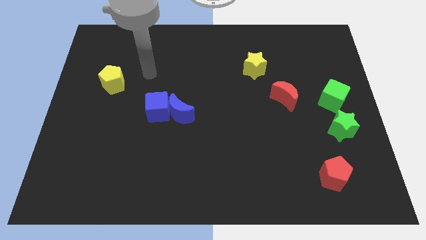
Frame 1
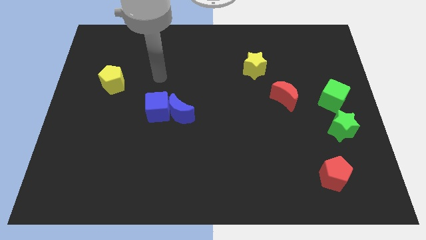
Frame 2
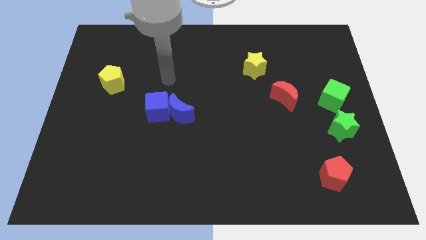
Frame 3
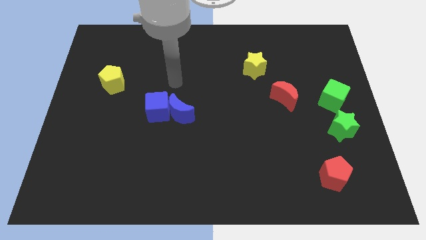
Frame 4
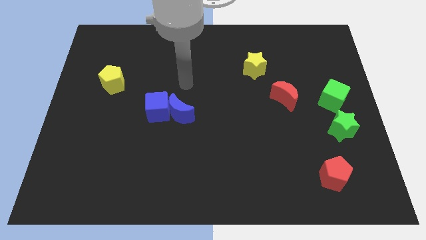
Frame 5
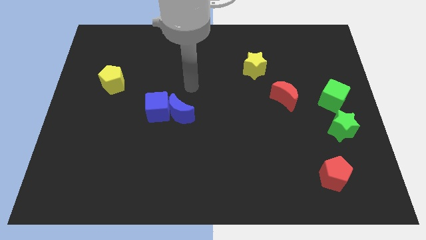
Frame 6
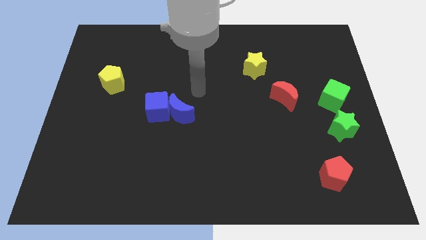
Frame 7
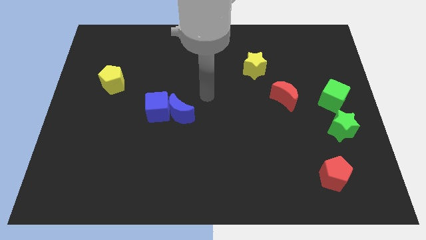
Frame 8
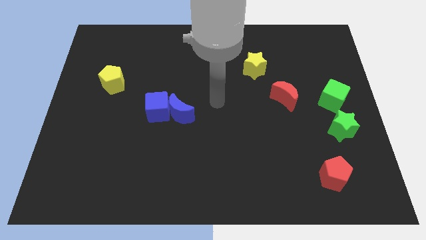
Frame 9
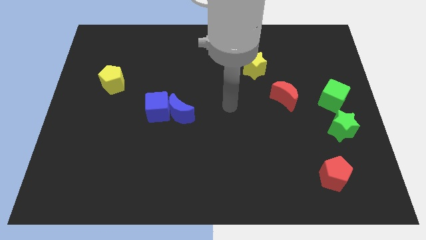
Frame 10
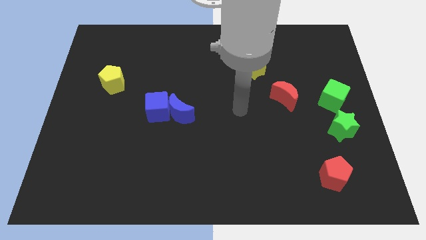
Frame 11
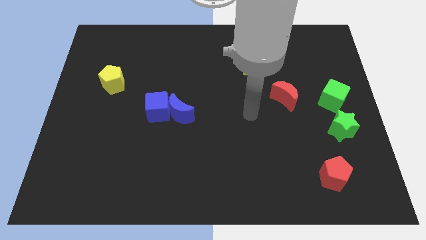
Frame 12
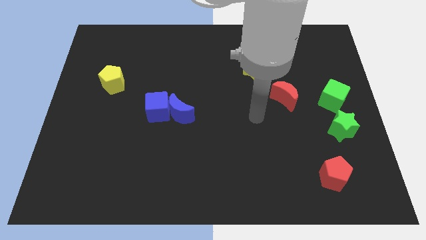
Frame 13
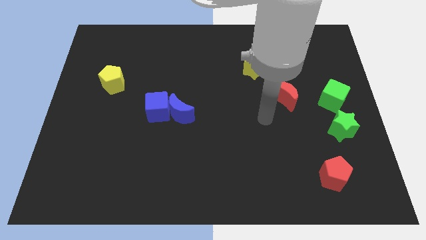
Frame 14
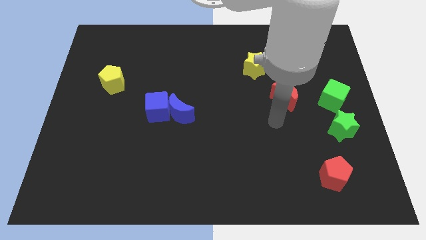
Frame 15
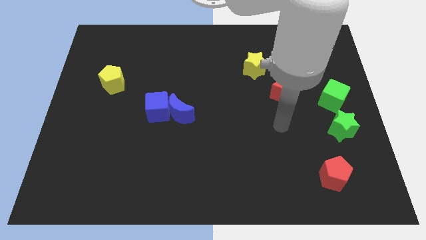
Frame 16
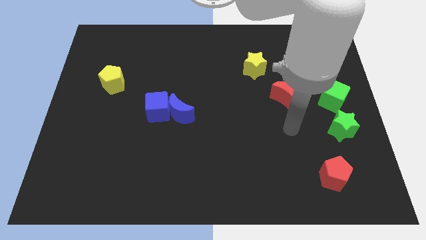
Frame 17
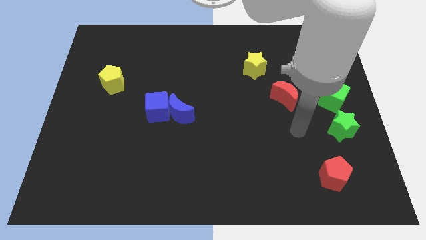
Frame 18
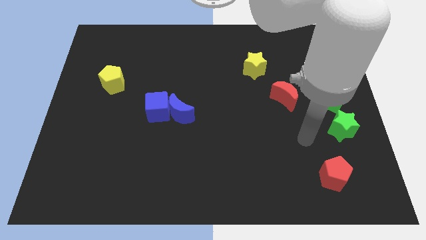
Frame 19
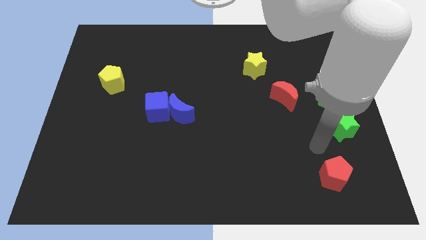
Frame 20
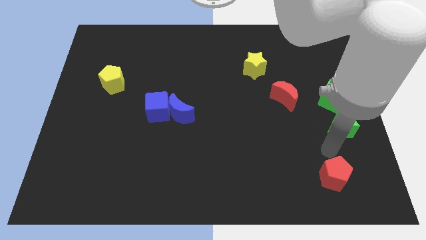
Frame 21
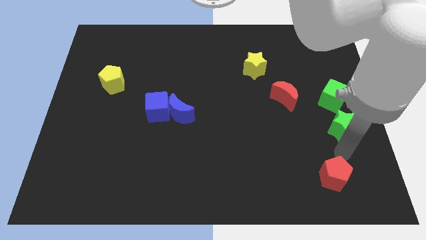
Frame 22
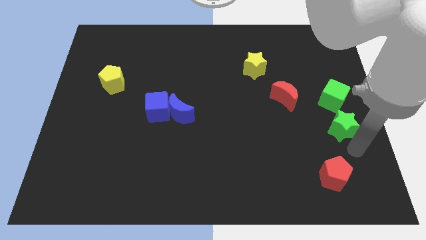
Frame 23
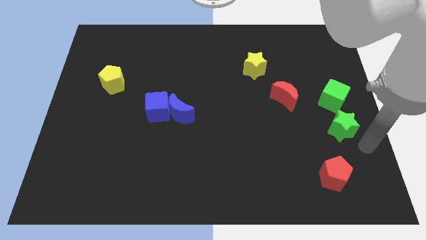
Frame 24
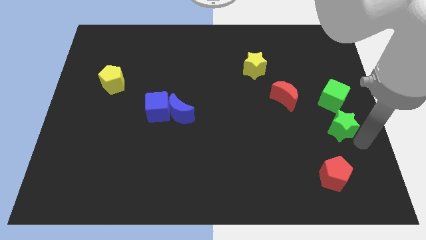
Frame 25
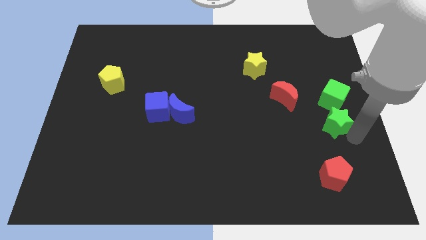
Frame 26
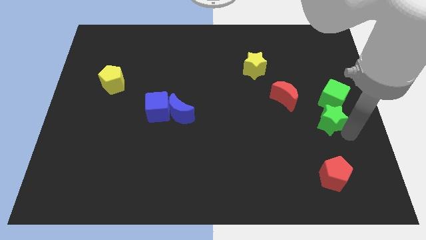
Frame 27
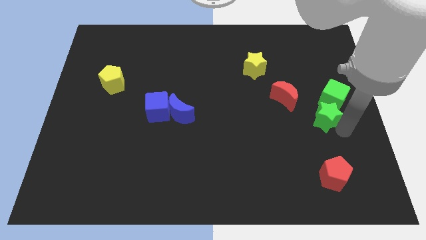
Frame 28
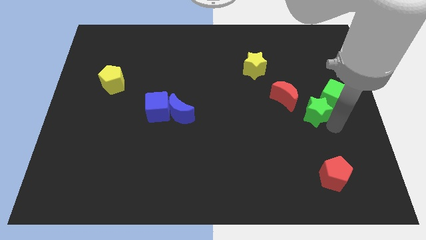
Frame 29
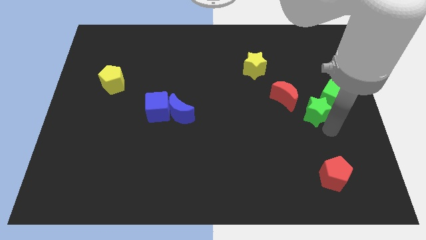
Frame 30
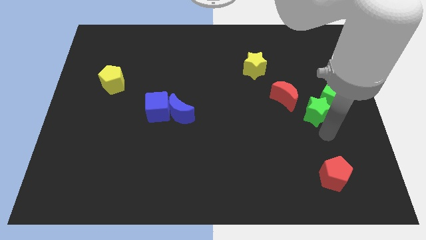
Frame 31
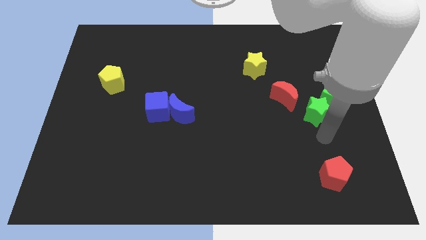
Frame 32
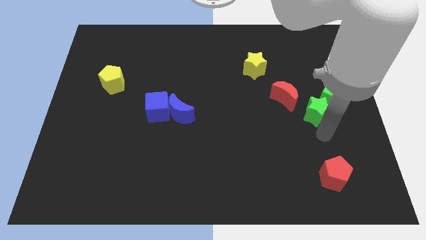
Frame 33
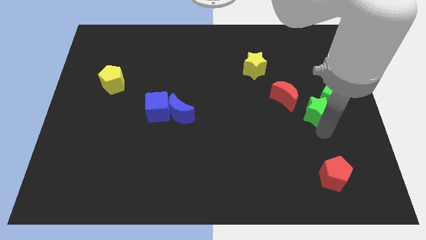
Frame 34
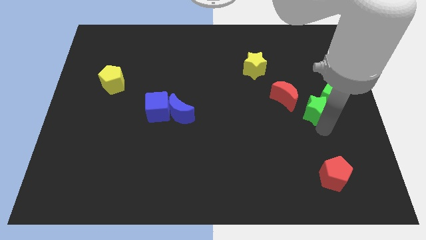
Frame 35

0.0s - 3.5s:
push the green star a bit up and left diagonally

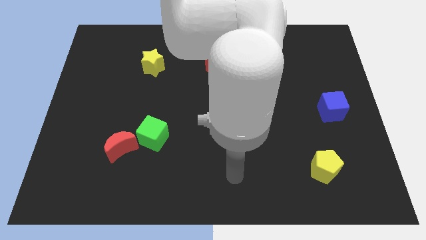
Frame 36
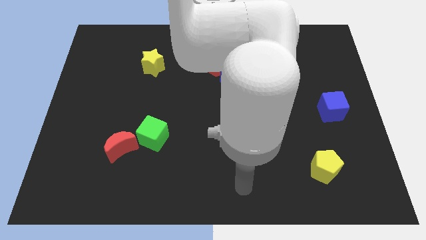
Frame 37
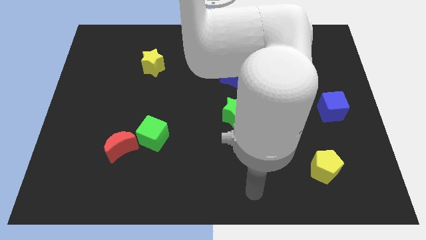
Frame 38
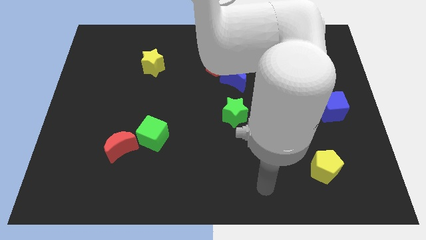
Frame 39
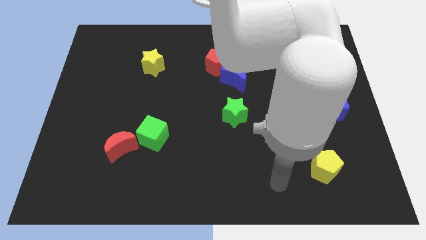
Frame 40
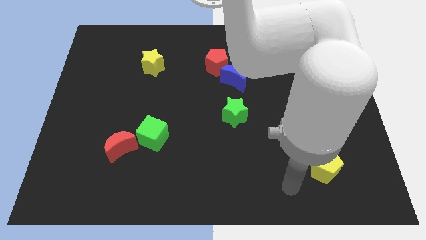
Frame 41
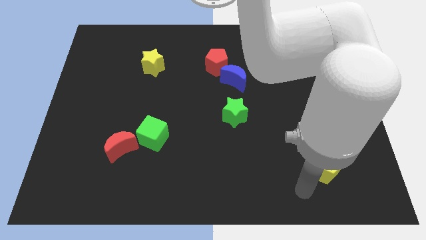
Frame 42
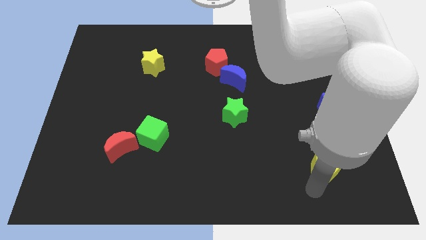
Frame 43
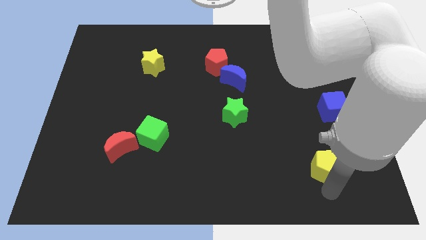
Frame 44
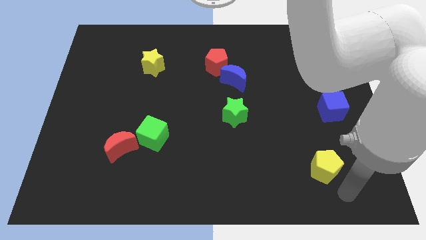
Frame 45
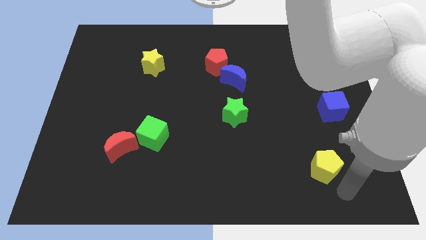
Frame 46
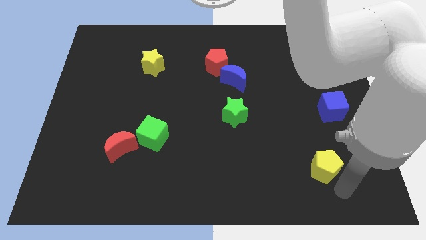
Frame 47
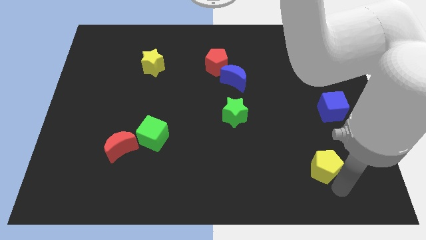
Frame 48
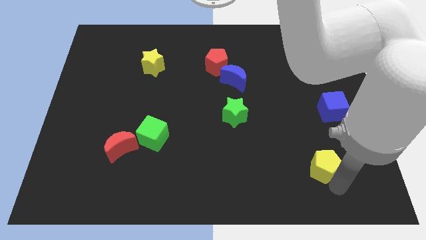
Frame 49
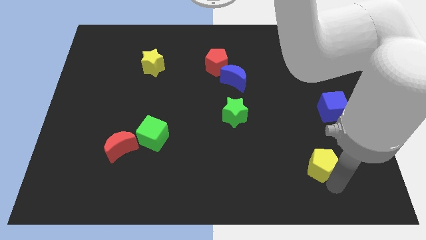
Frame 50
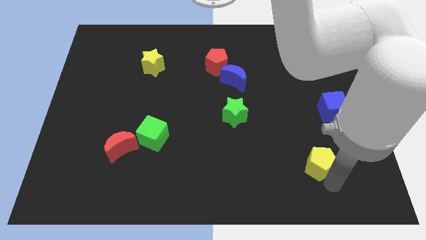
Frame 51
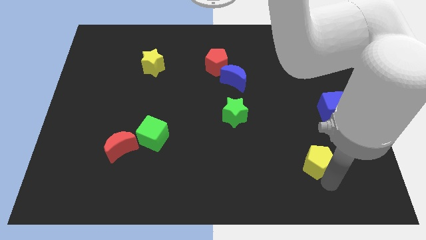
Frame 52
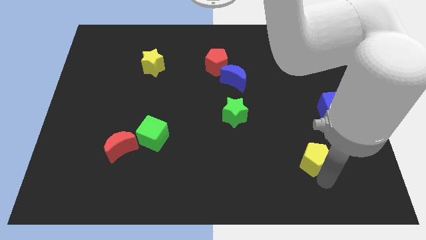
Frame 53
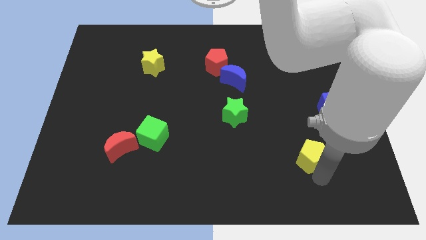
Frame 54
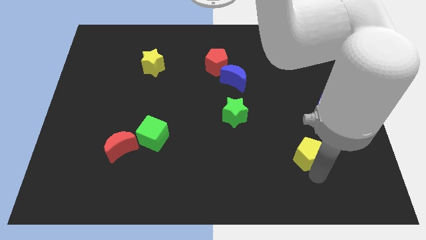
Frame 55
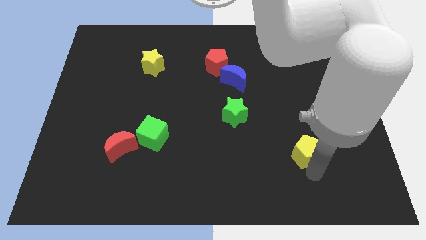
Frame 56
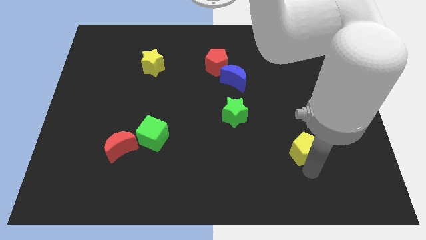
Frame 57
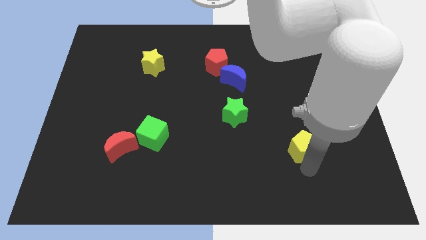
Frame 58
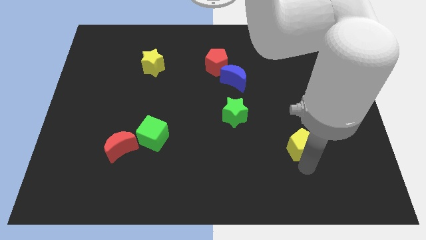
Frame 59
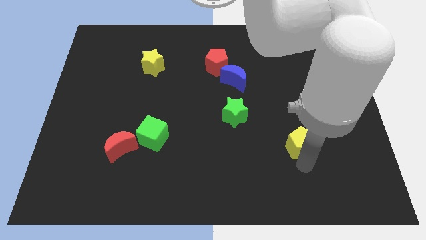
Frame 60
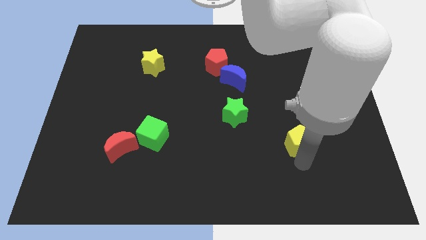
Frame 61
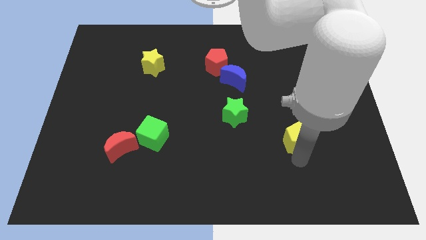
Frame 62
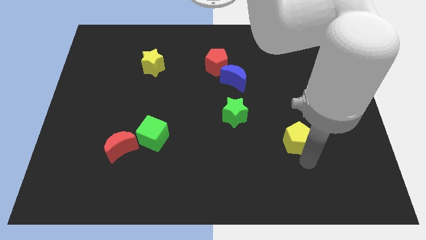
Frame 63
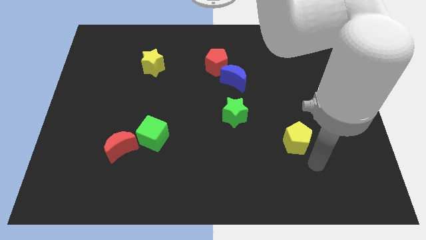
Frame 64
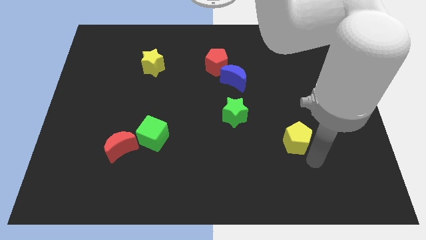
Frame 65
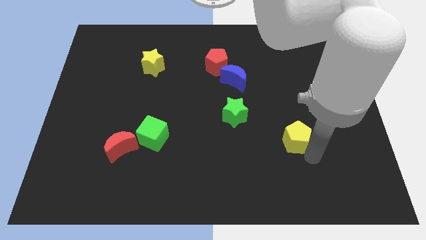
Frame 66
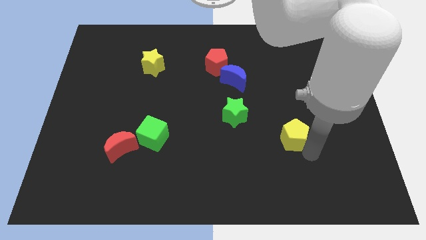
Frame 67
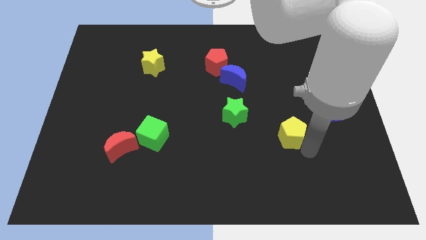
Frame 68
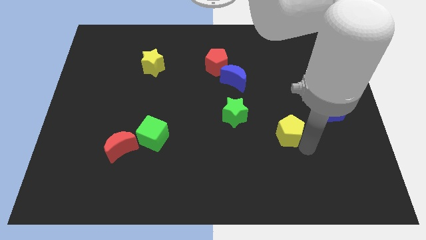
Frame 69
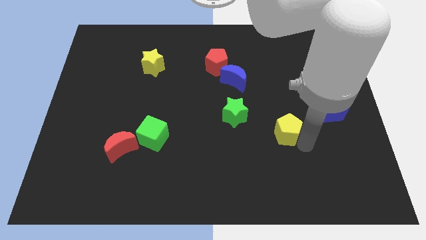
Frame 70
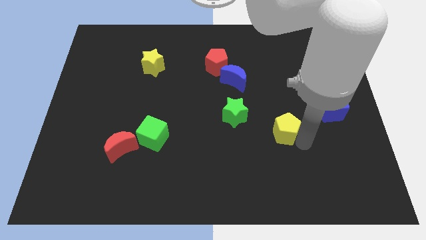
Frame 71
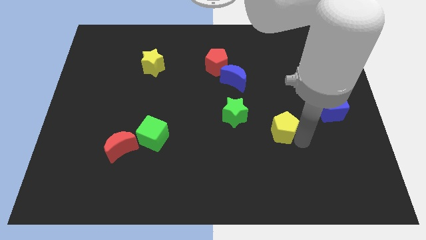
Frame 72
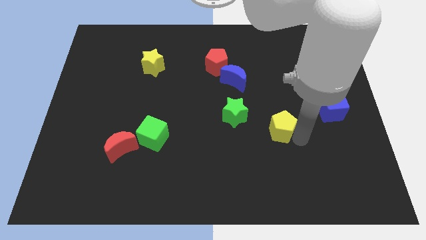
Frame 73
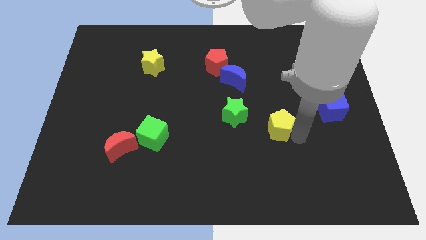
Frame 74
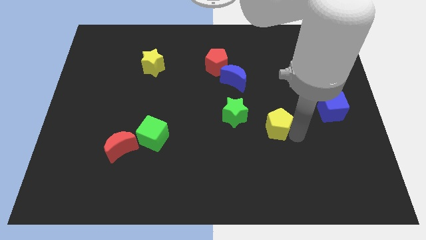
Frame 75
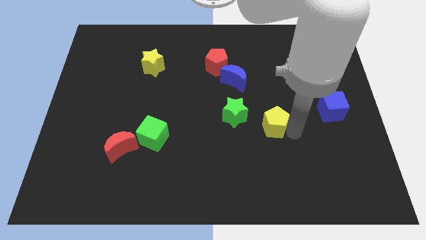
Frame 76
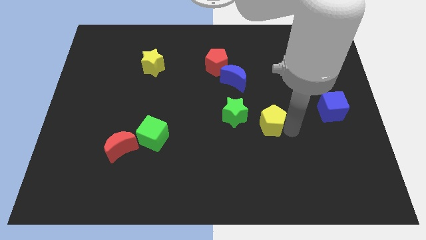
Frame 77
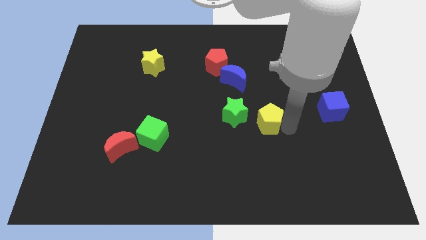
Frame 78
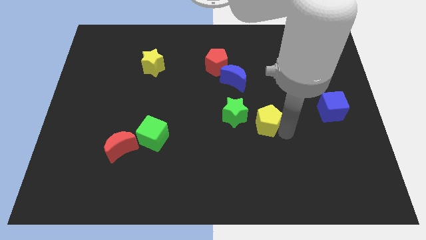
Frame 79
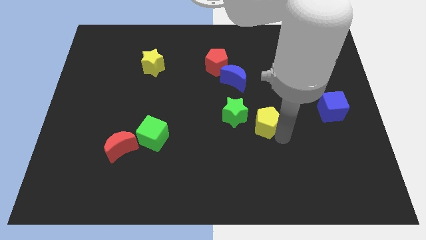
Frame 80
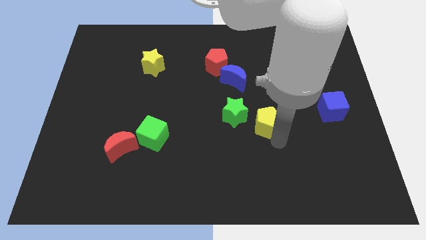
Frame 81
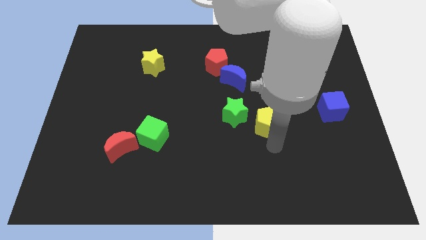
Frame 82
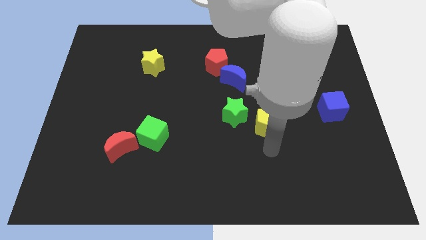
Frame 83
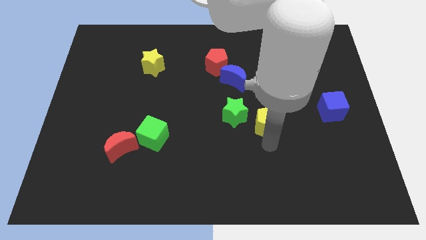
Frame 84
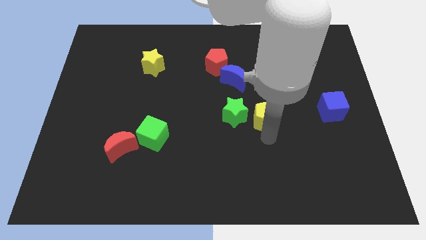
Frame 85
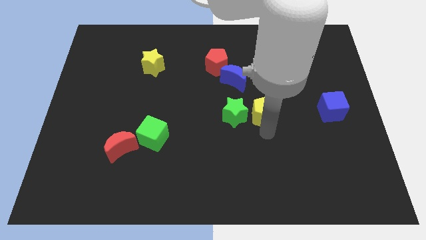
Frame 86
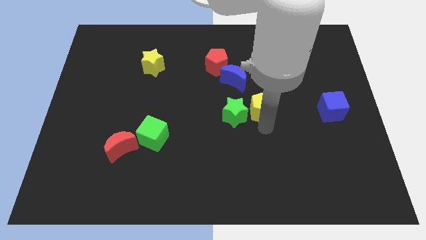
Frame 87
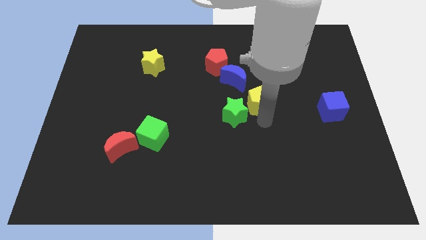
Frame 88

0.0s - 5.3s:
move the yellow pentagon upwards and to the left diagonally
